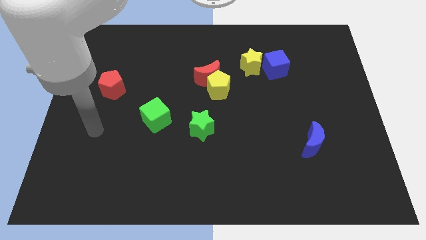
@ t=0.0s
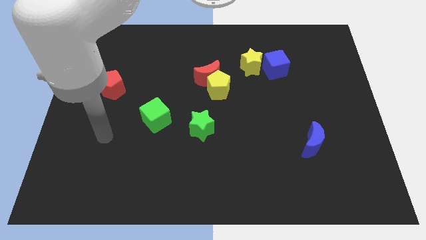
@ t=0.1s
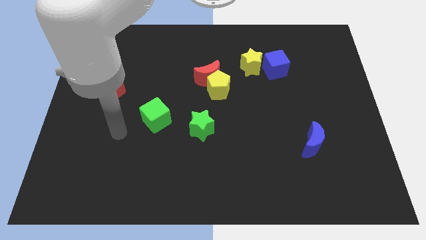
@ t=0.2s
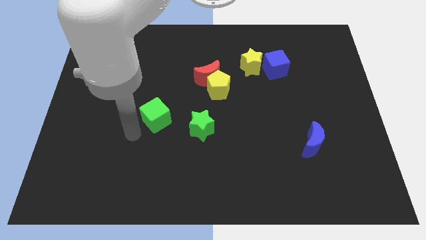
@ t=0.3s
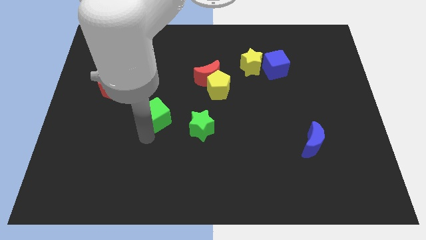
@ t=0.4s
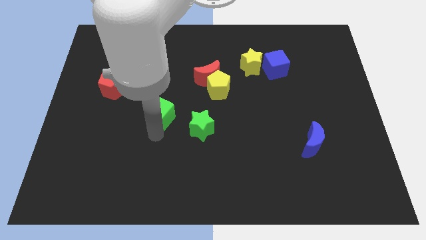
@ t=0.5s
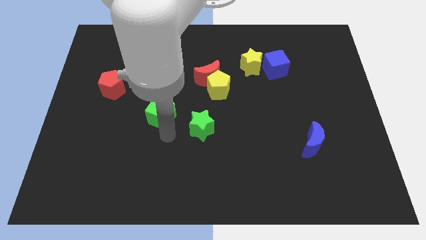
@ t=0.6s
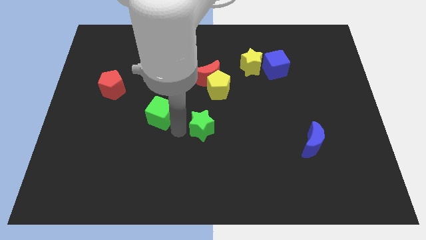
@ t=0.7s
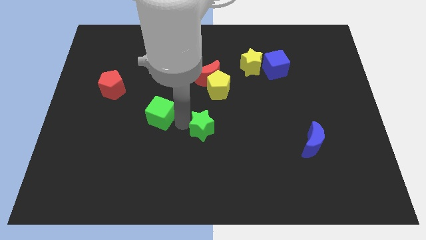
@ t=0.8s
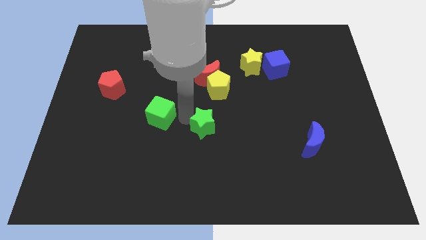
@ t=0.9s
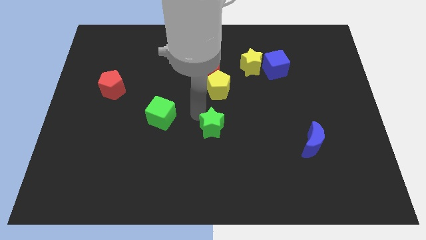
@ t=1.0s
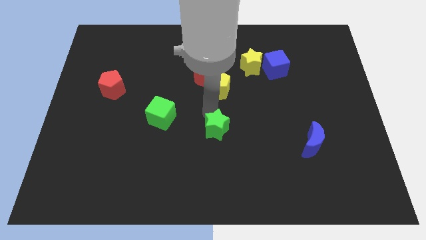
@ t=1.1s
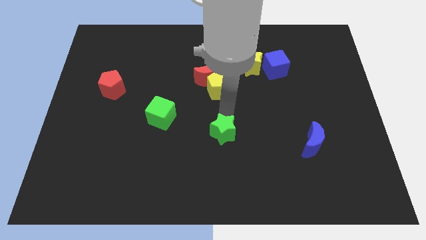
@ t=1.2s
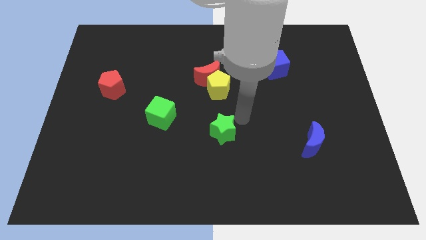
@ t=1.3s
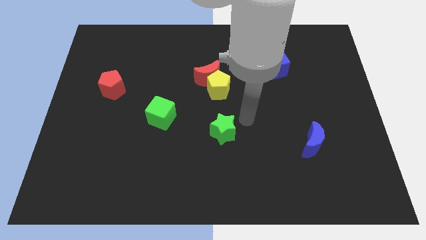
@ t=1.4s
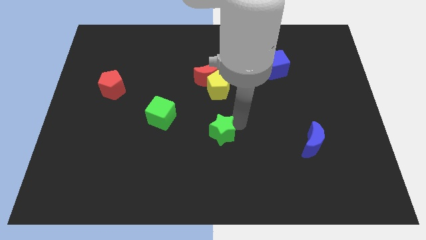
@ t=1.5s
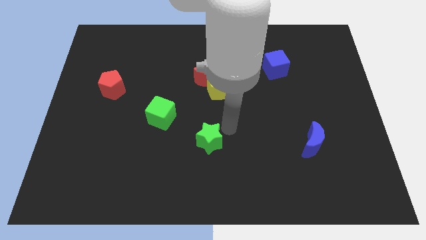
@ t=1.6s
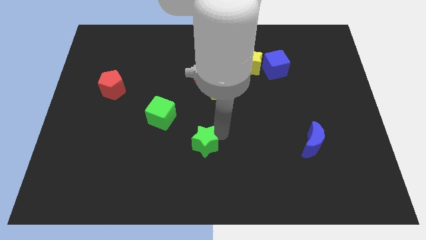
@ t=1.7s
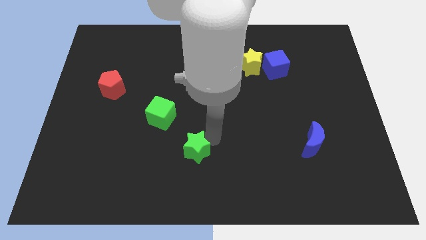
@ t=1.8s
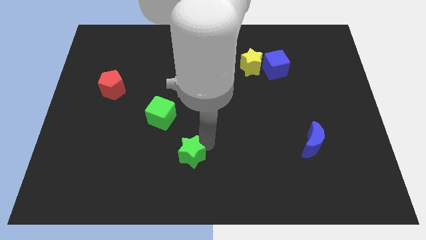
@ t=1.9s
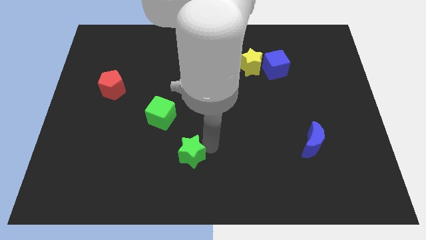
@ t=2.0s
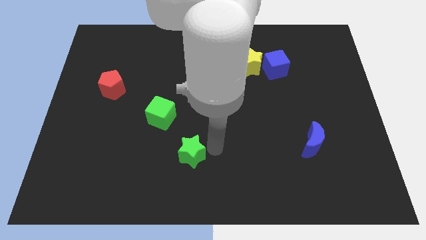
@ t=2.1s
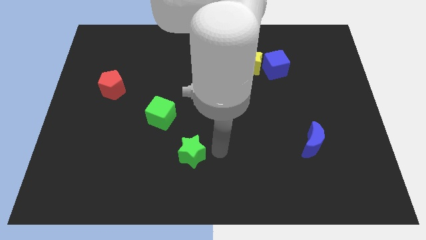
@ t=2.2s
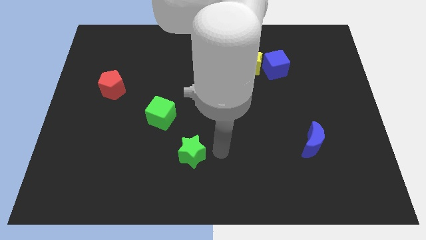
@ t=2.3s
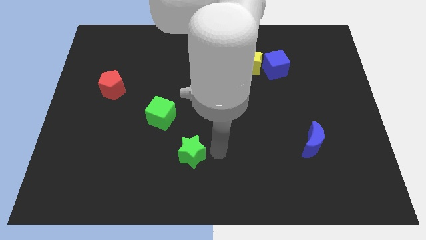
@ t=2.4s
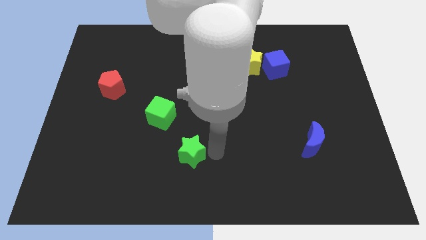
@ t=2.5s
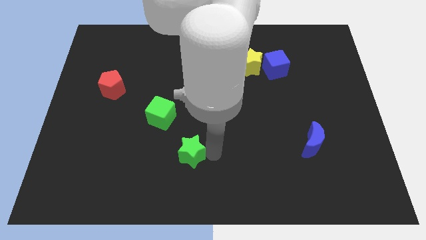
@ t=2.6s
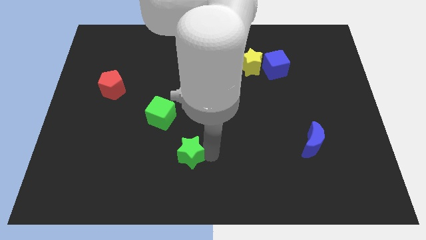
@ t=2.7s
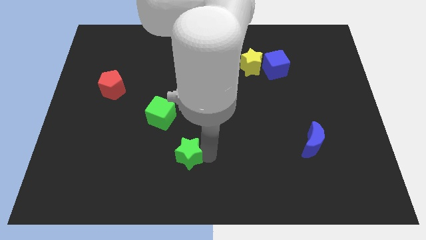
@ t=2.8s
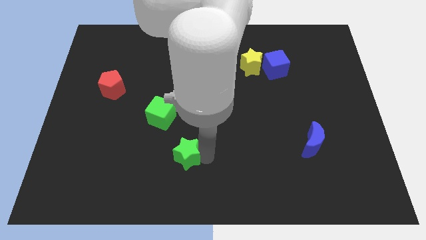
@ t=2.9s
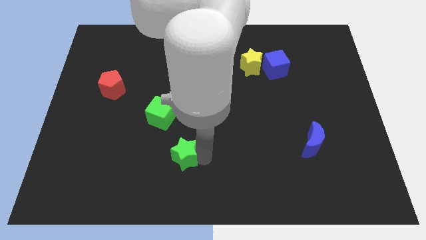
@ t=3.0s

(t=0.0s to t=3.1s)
push the green star a bit downwards and left diagonally

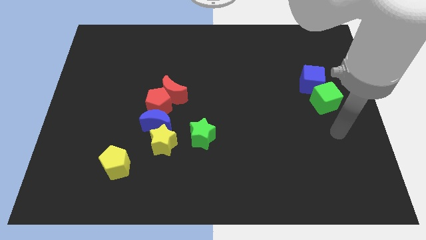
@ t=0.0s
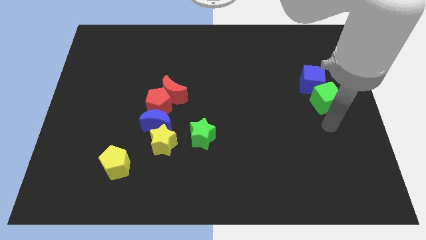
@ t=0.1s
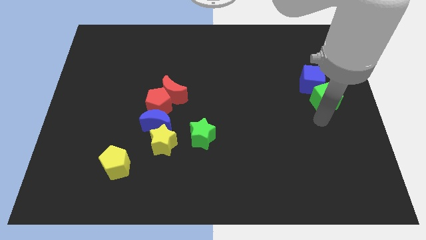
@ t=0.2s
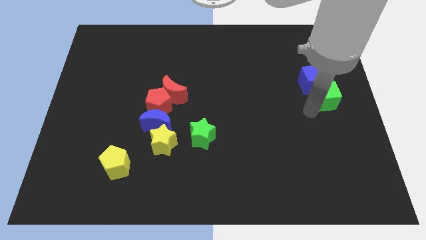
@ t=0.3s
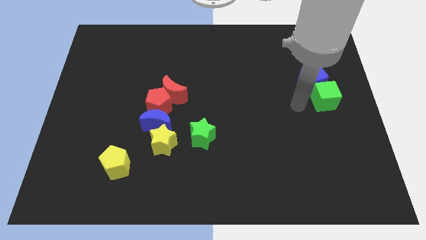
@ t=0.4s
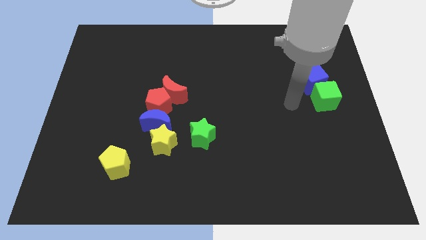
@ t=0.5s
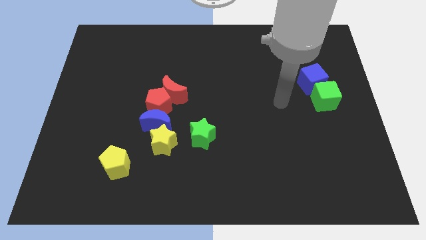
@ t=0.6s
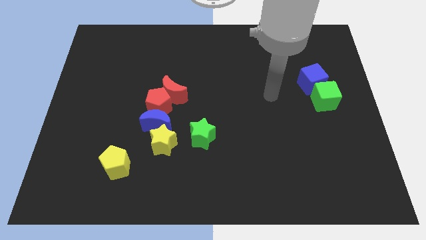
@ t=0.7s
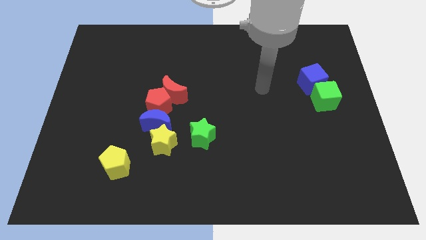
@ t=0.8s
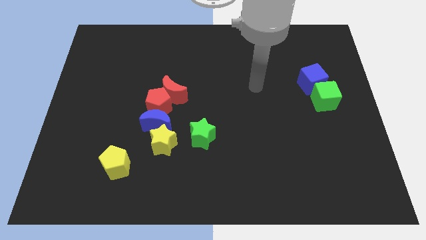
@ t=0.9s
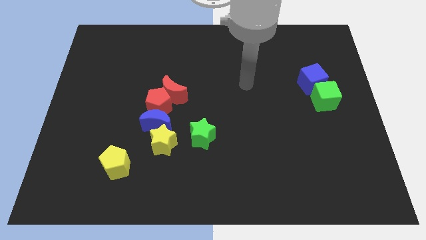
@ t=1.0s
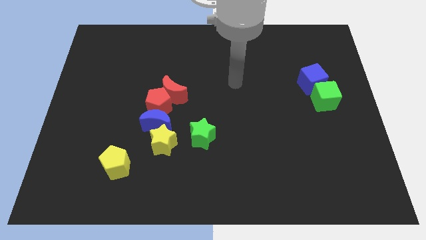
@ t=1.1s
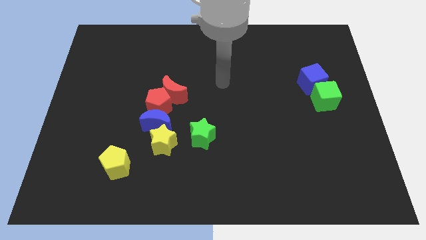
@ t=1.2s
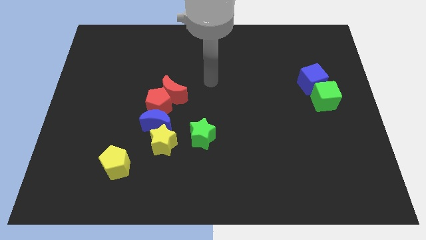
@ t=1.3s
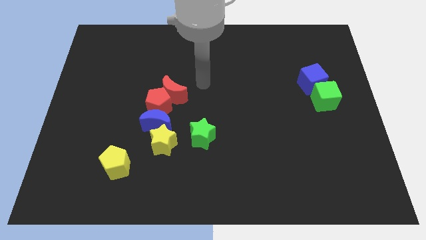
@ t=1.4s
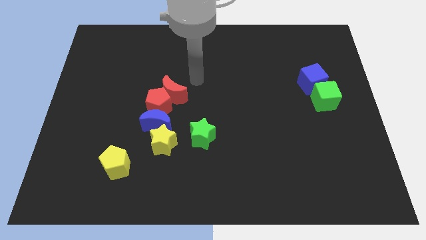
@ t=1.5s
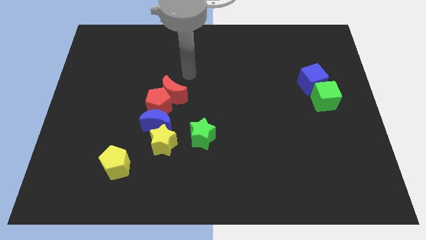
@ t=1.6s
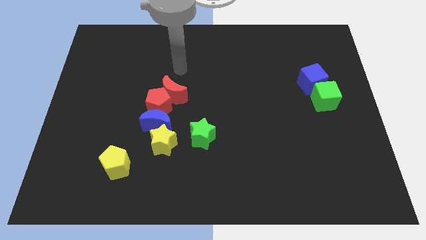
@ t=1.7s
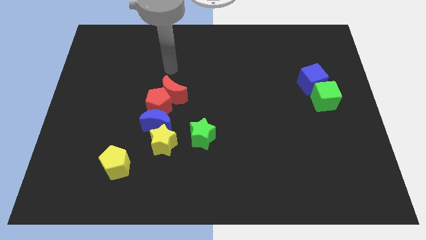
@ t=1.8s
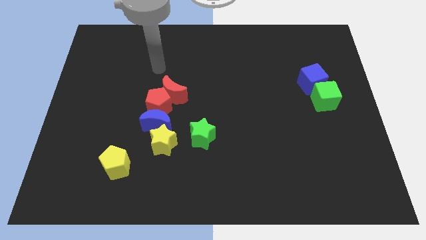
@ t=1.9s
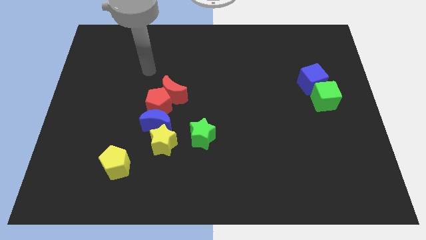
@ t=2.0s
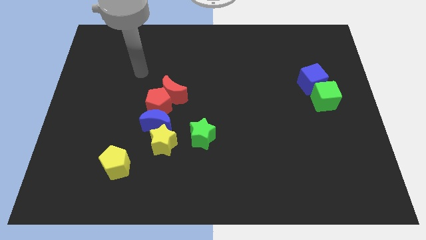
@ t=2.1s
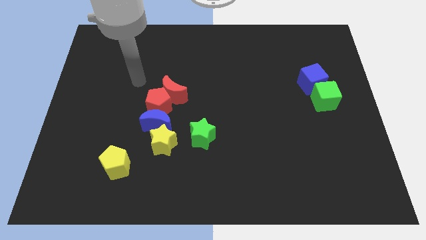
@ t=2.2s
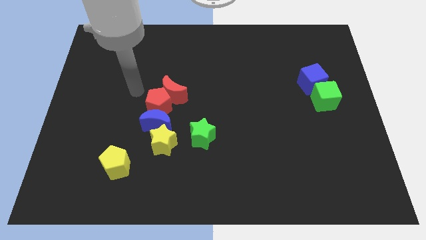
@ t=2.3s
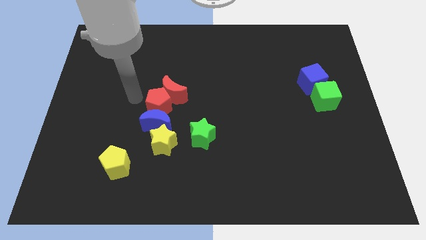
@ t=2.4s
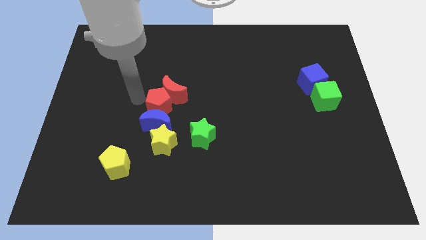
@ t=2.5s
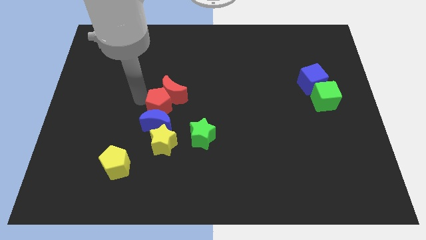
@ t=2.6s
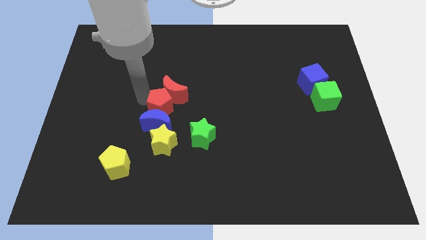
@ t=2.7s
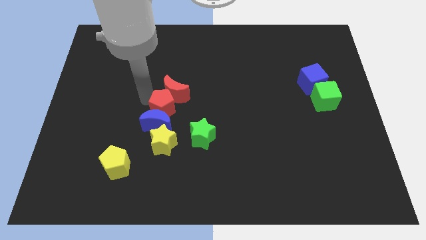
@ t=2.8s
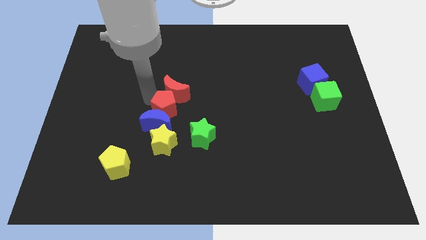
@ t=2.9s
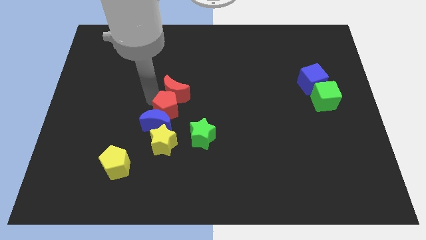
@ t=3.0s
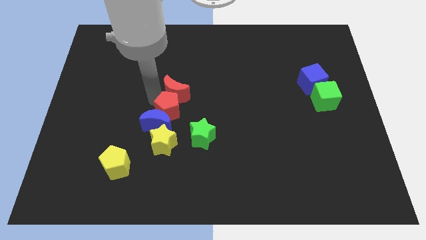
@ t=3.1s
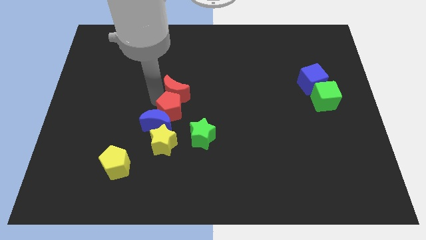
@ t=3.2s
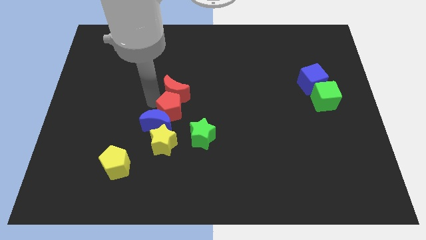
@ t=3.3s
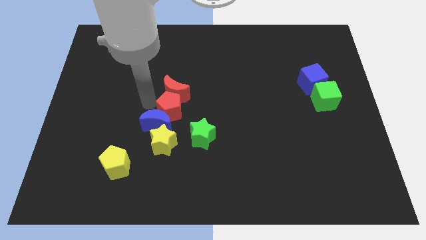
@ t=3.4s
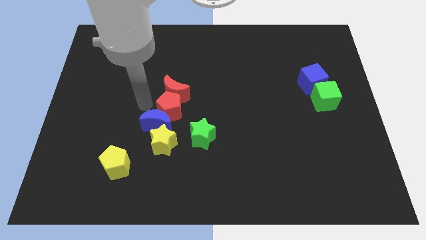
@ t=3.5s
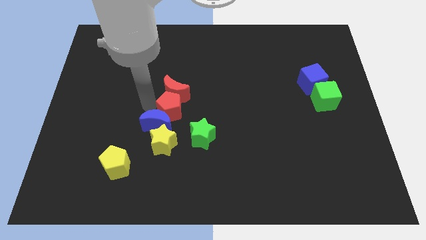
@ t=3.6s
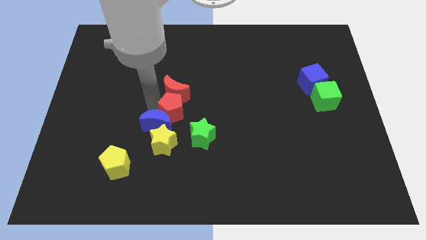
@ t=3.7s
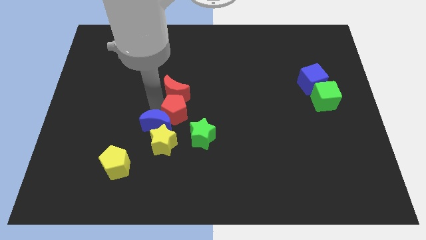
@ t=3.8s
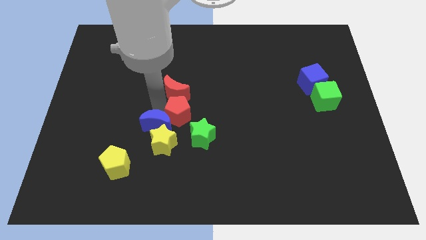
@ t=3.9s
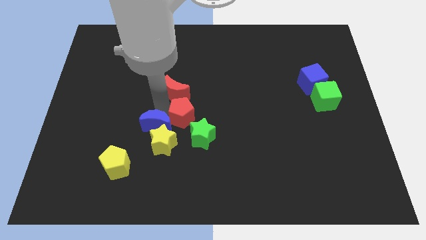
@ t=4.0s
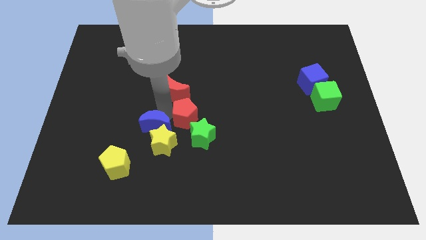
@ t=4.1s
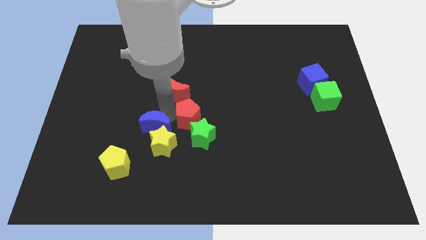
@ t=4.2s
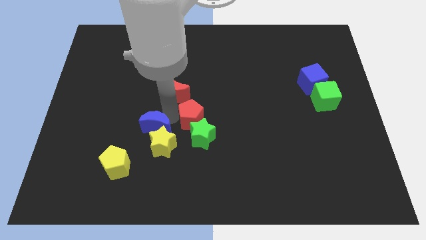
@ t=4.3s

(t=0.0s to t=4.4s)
move the red pentagon a little to the right

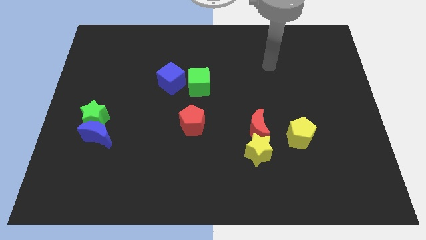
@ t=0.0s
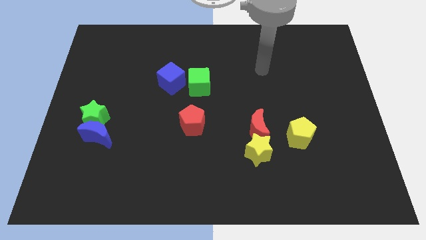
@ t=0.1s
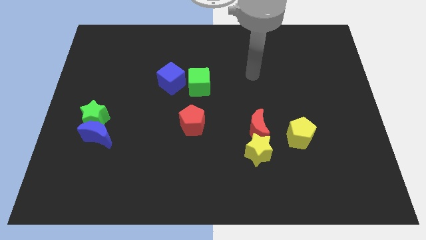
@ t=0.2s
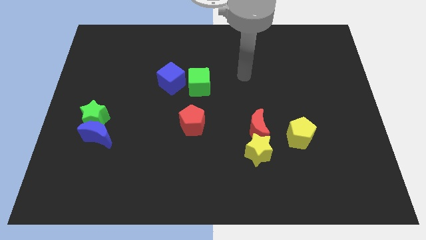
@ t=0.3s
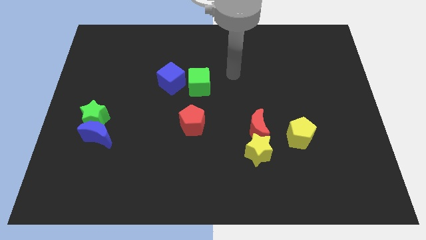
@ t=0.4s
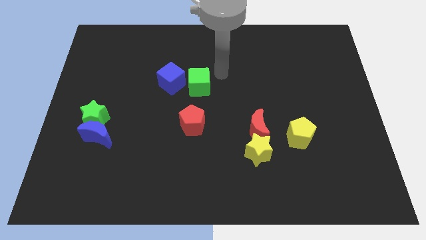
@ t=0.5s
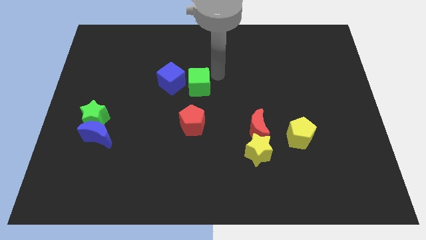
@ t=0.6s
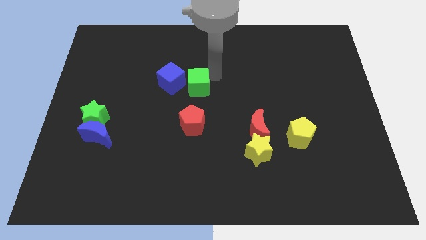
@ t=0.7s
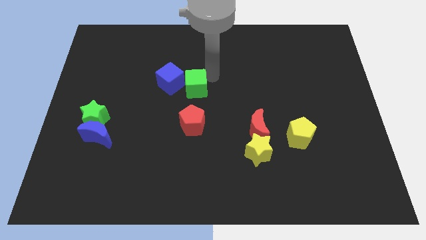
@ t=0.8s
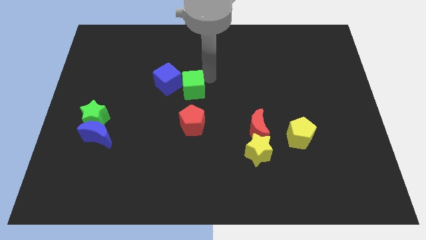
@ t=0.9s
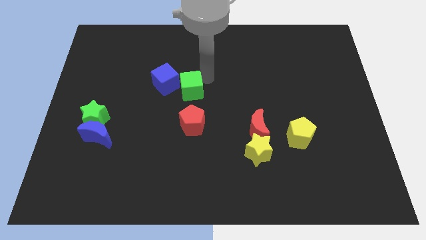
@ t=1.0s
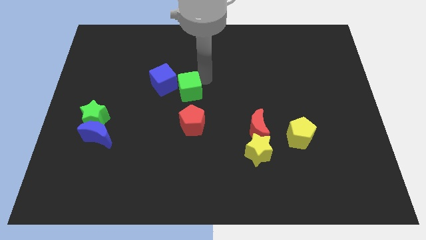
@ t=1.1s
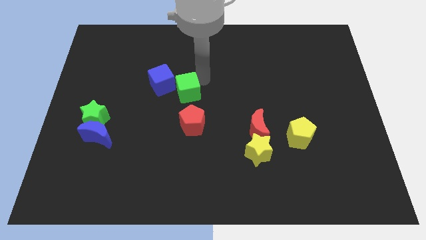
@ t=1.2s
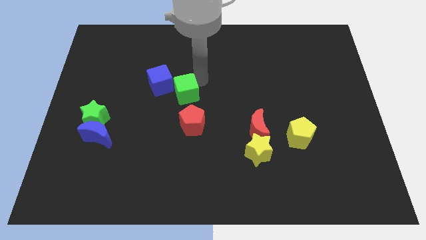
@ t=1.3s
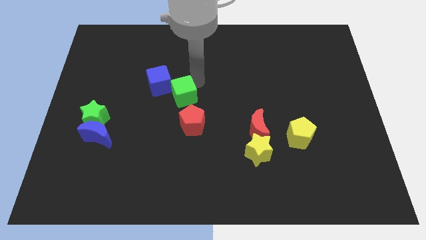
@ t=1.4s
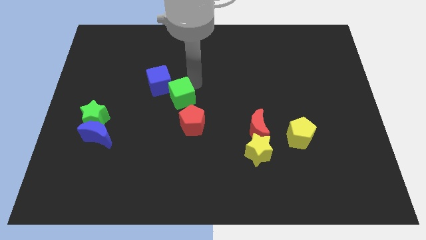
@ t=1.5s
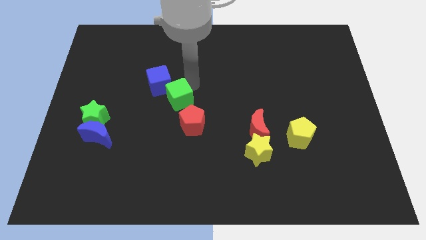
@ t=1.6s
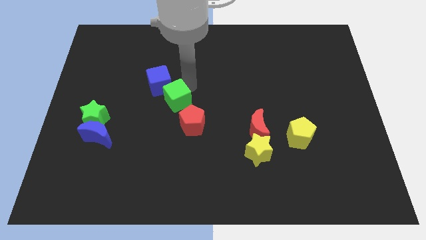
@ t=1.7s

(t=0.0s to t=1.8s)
slightly slide the green cube diagonally down and to the left
